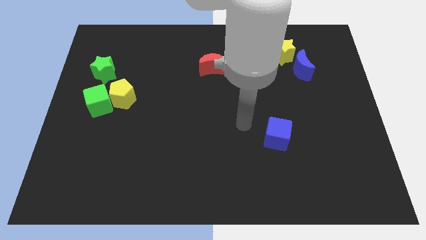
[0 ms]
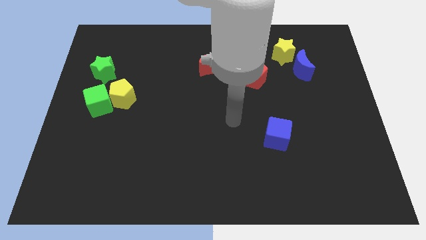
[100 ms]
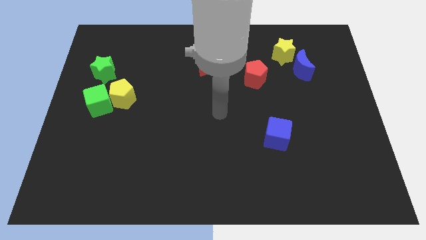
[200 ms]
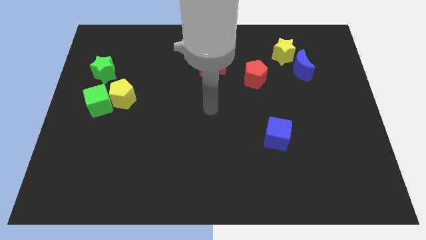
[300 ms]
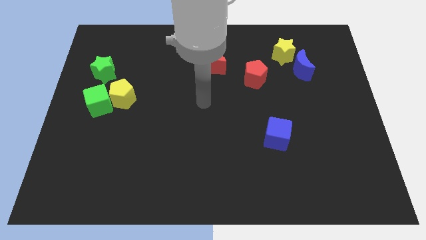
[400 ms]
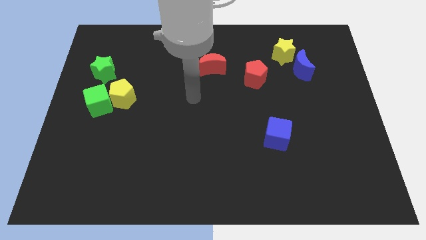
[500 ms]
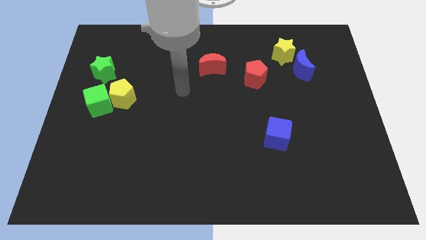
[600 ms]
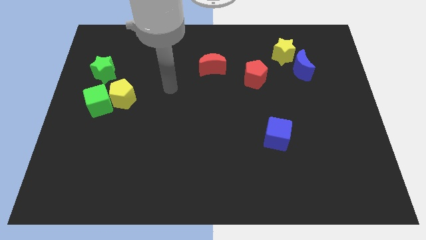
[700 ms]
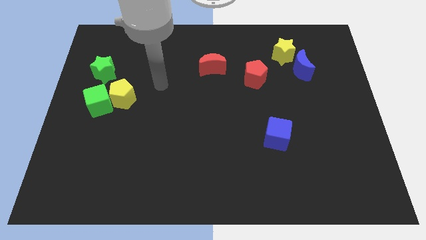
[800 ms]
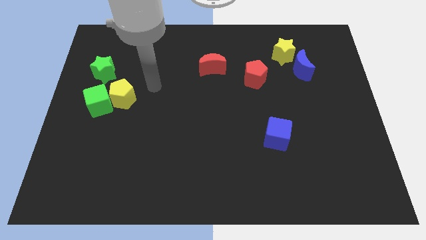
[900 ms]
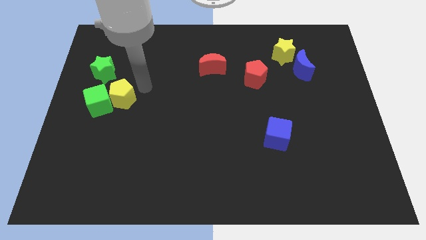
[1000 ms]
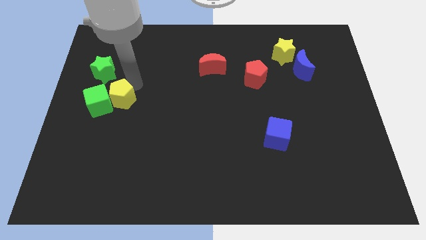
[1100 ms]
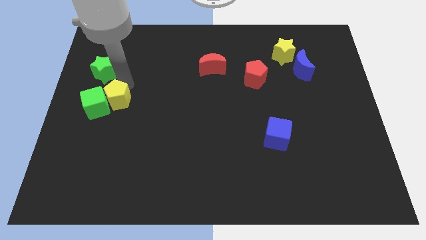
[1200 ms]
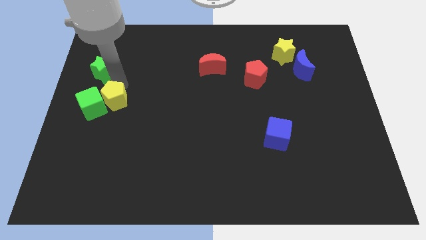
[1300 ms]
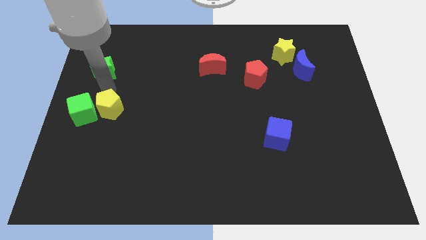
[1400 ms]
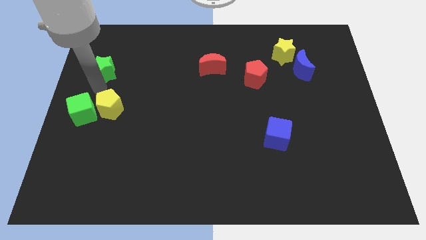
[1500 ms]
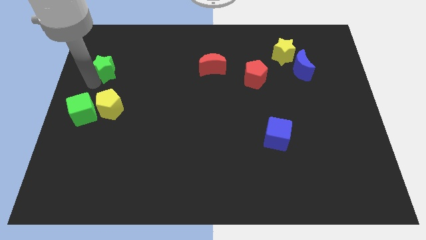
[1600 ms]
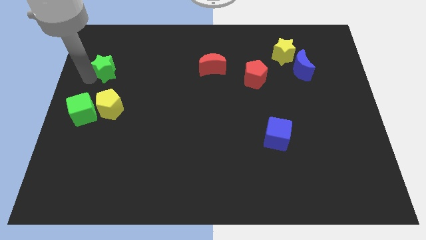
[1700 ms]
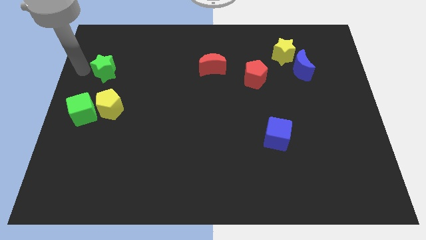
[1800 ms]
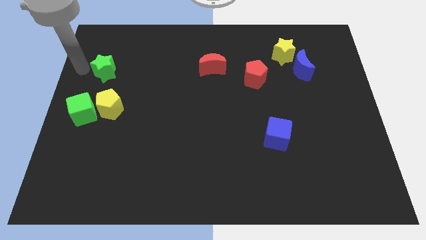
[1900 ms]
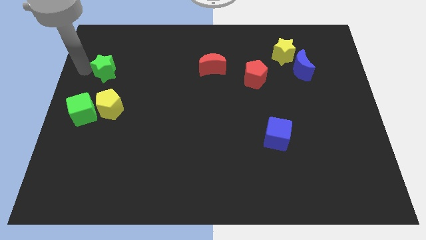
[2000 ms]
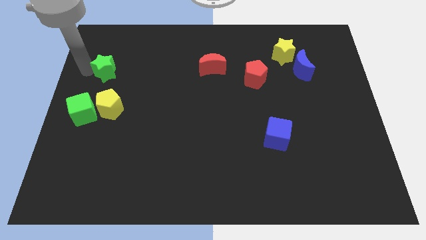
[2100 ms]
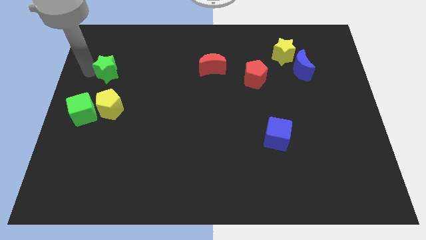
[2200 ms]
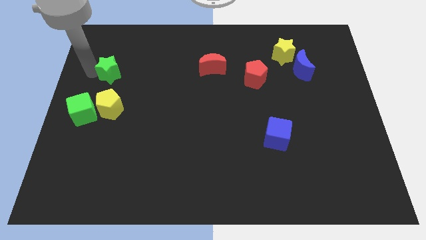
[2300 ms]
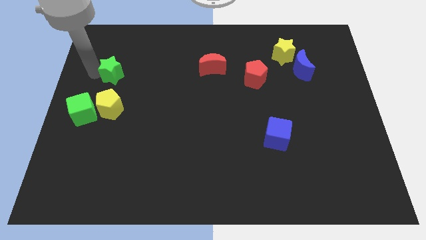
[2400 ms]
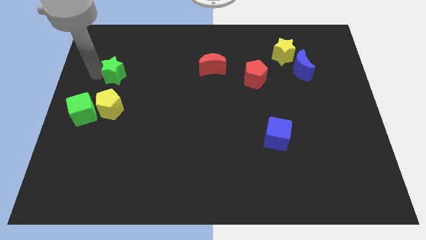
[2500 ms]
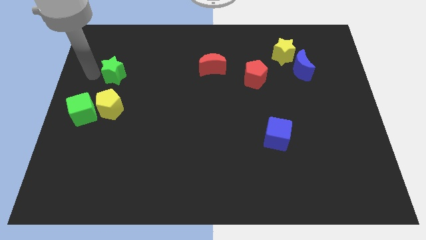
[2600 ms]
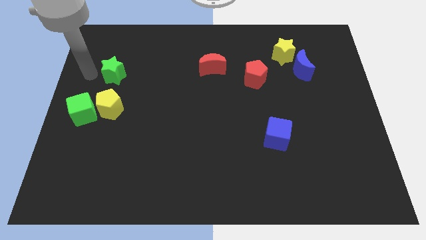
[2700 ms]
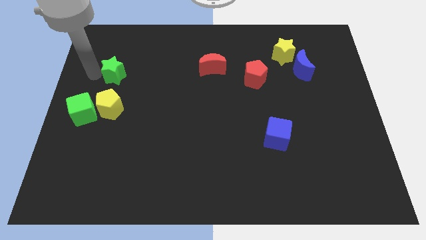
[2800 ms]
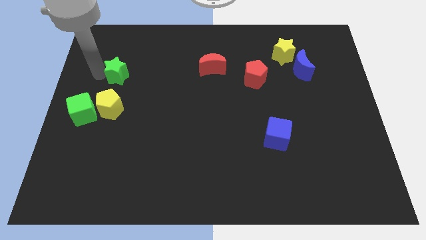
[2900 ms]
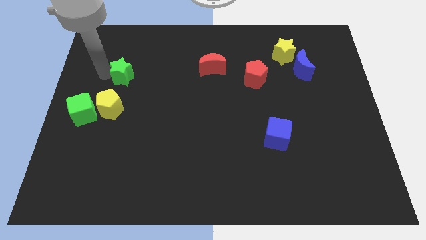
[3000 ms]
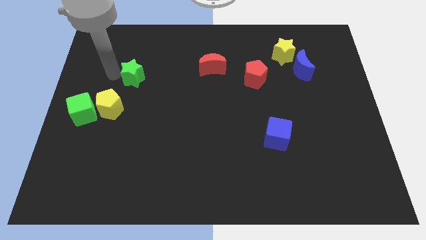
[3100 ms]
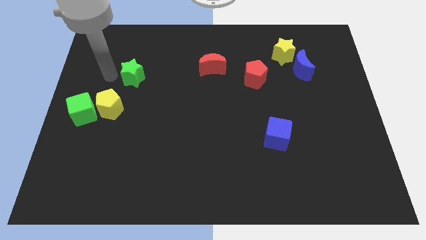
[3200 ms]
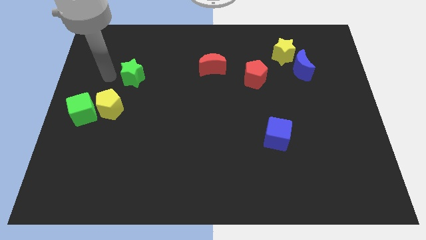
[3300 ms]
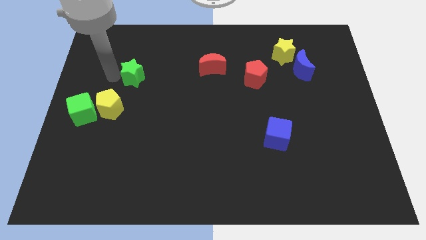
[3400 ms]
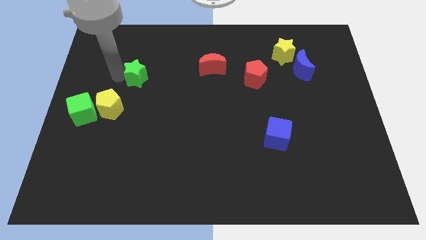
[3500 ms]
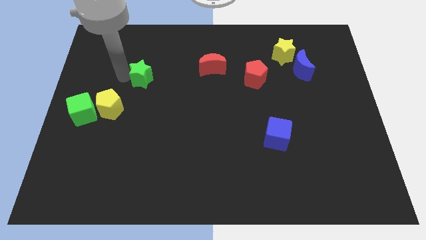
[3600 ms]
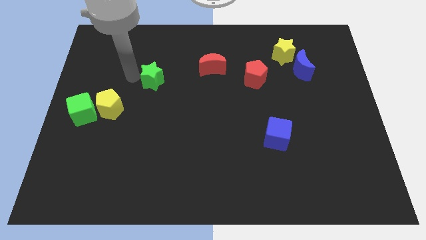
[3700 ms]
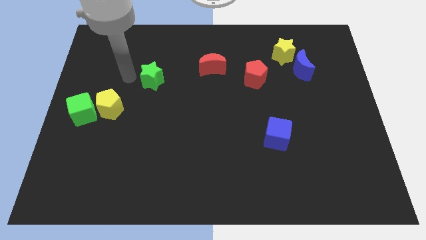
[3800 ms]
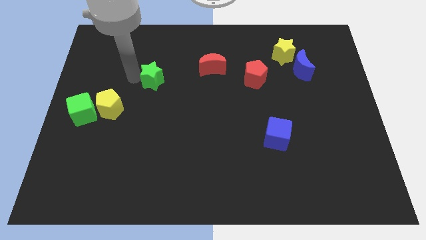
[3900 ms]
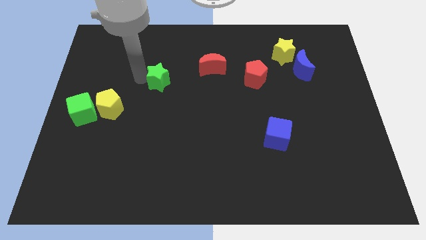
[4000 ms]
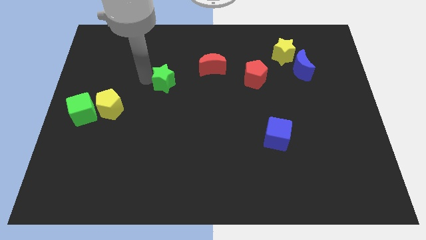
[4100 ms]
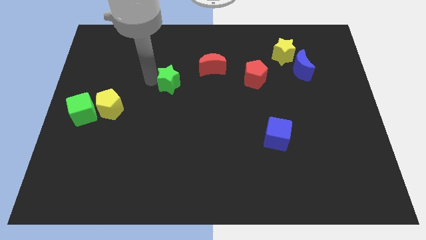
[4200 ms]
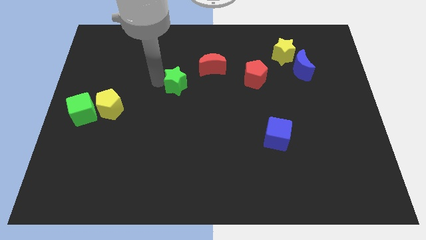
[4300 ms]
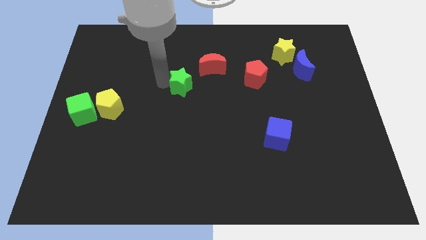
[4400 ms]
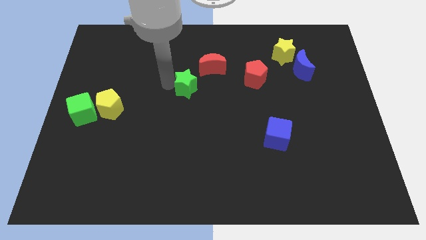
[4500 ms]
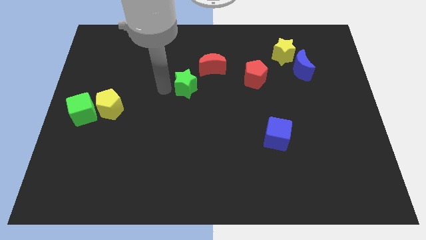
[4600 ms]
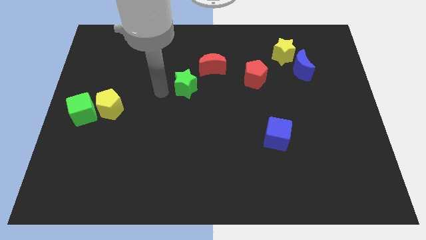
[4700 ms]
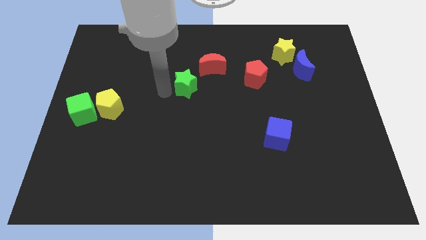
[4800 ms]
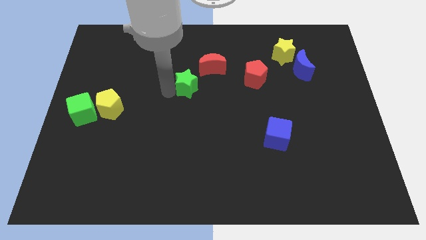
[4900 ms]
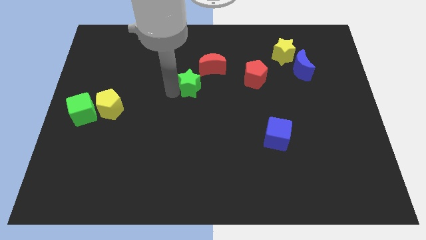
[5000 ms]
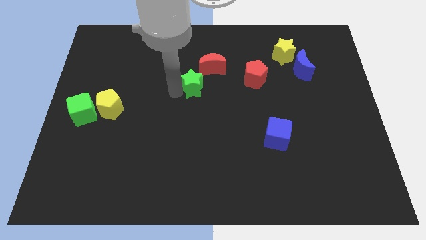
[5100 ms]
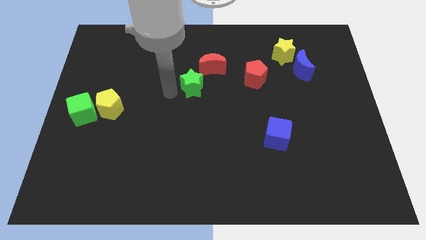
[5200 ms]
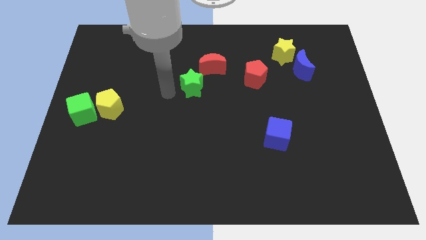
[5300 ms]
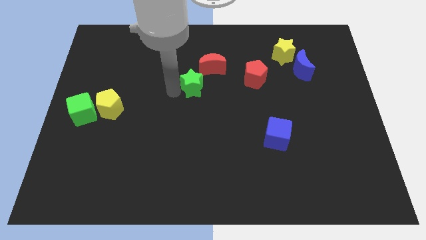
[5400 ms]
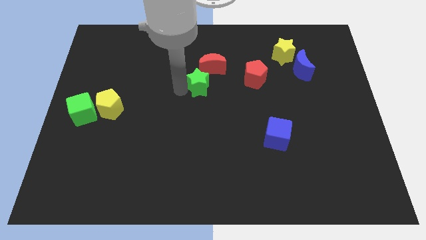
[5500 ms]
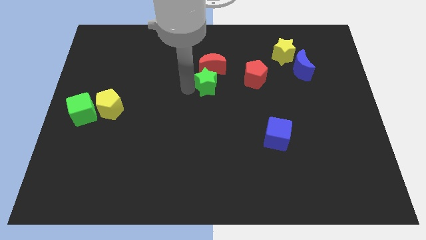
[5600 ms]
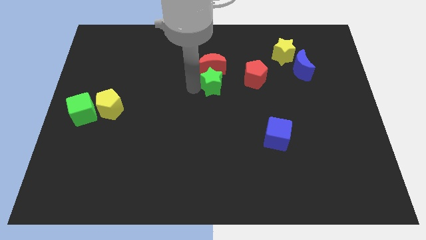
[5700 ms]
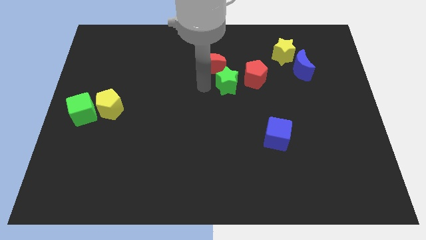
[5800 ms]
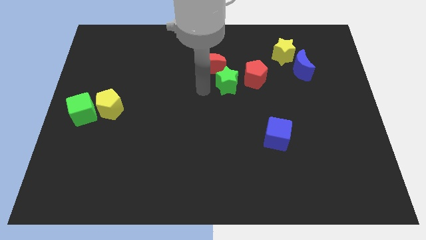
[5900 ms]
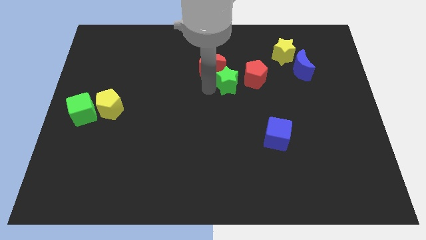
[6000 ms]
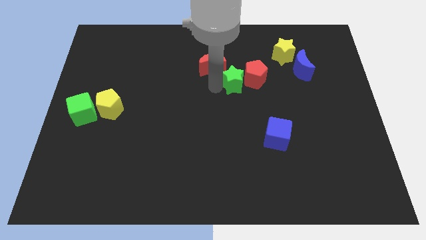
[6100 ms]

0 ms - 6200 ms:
put the green star close to the red pentagon
